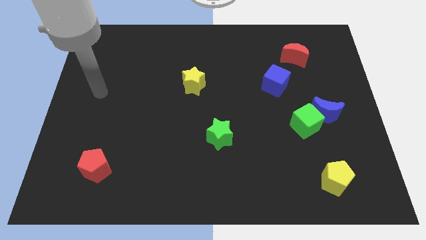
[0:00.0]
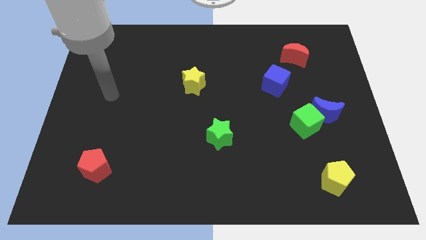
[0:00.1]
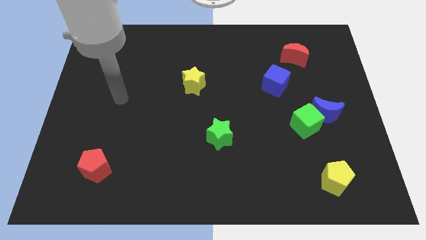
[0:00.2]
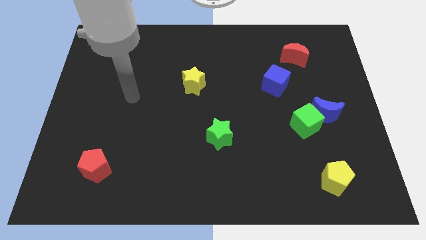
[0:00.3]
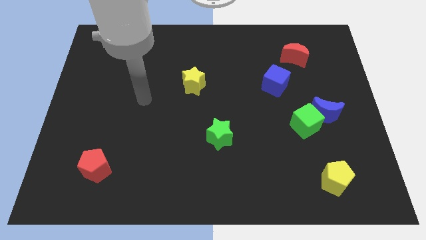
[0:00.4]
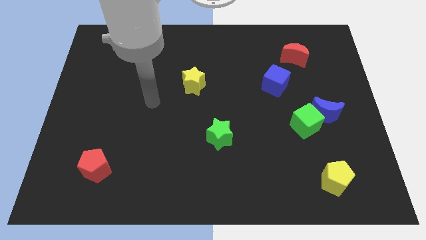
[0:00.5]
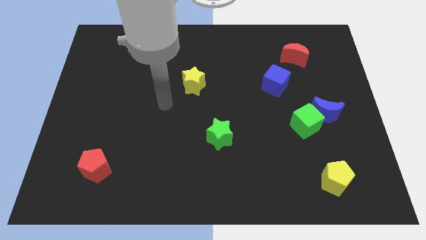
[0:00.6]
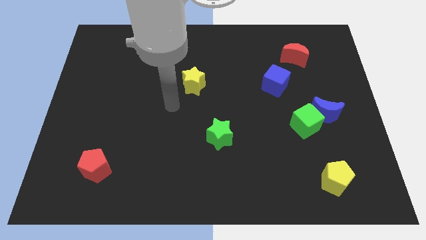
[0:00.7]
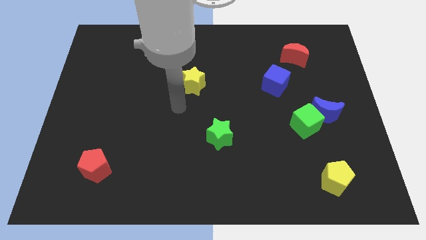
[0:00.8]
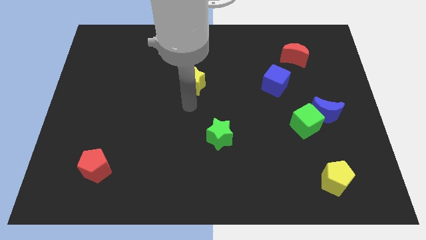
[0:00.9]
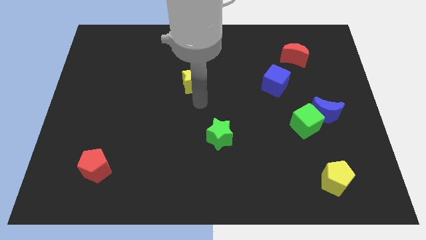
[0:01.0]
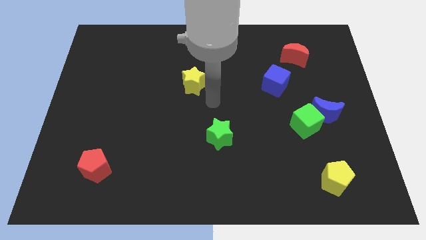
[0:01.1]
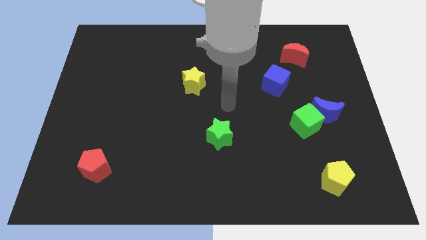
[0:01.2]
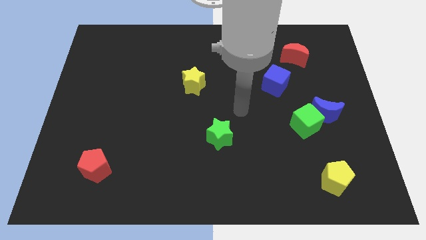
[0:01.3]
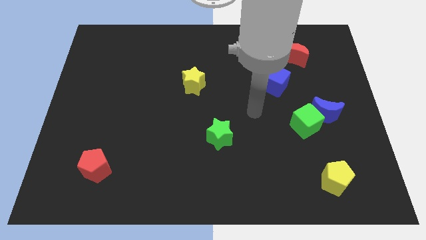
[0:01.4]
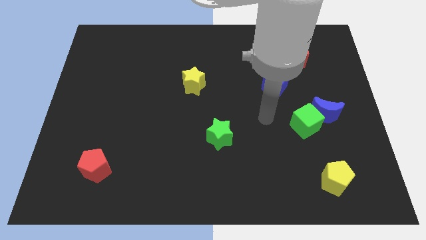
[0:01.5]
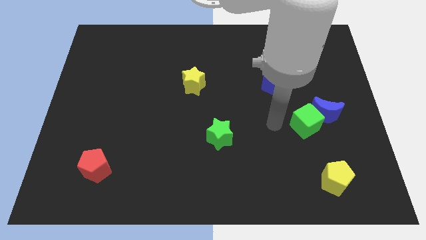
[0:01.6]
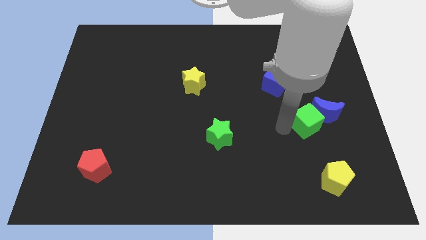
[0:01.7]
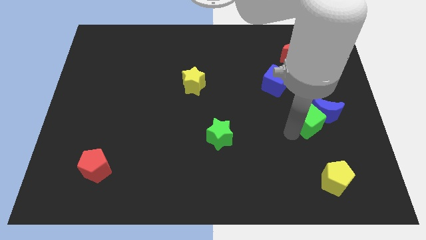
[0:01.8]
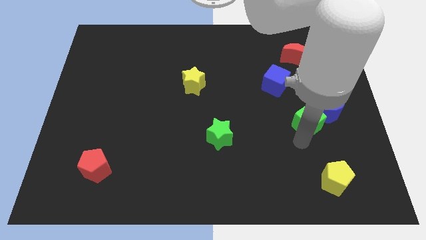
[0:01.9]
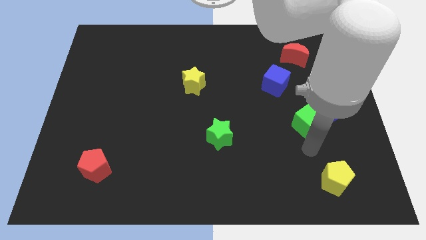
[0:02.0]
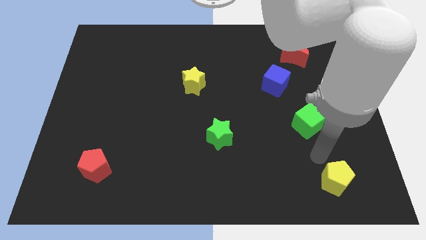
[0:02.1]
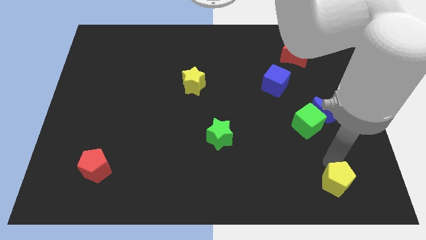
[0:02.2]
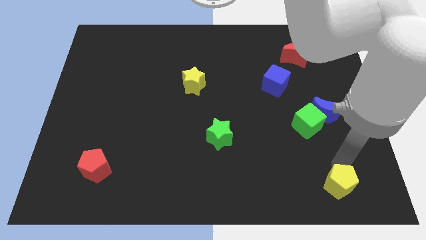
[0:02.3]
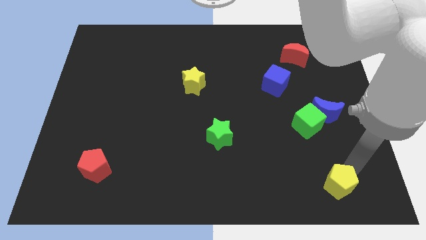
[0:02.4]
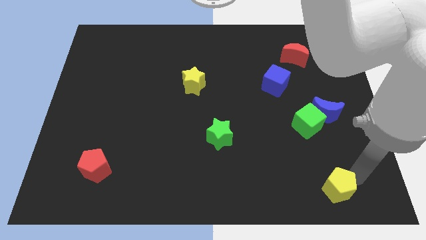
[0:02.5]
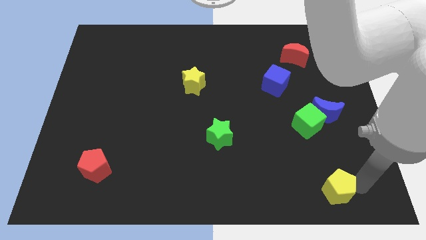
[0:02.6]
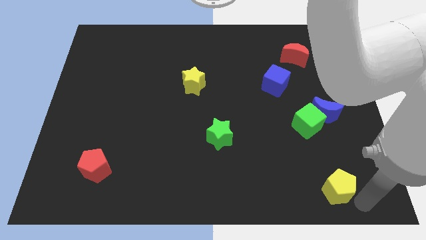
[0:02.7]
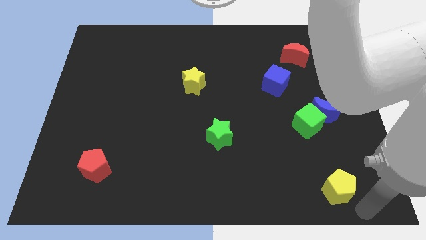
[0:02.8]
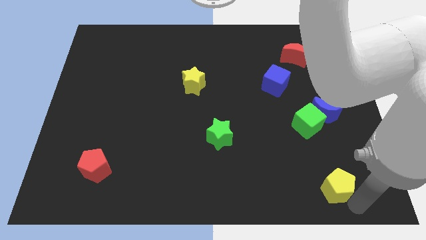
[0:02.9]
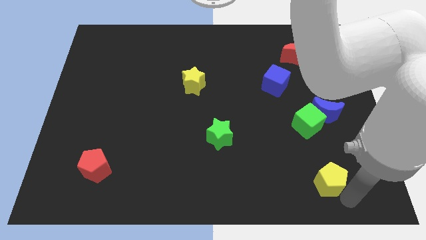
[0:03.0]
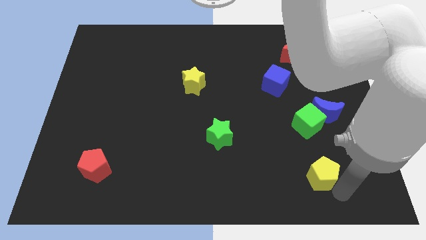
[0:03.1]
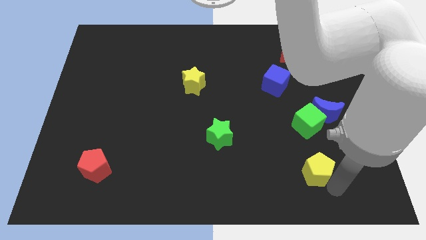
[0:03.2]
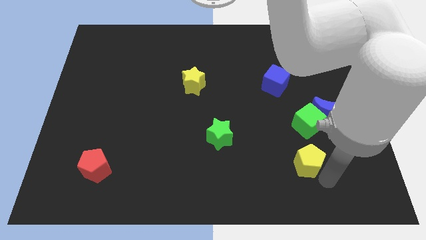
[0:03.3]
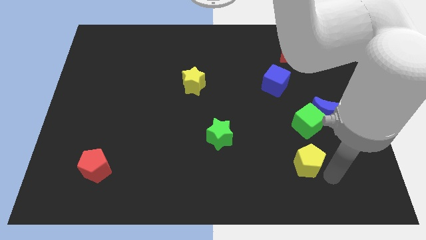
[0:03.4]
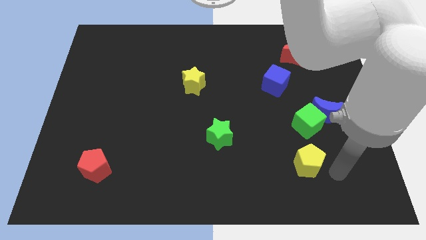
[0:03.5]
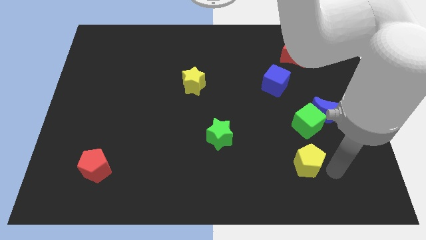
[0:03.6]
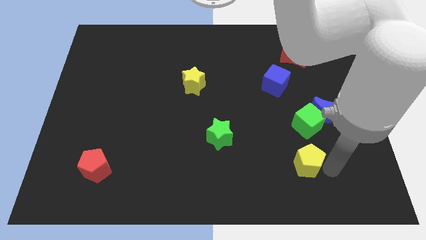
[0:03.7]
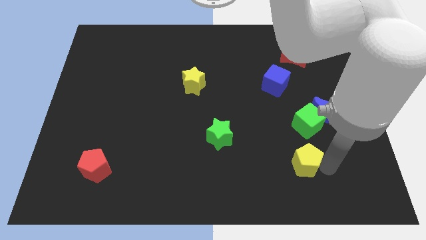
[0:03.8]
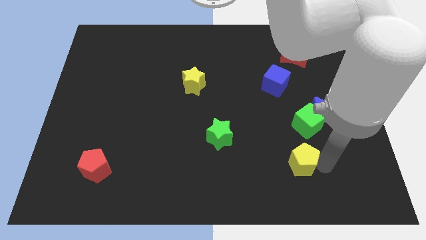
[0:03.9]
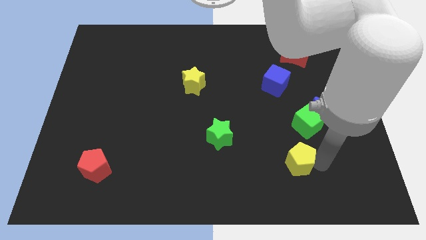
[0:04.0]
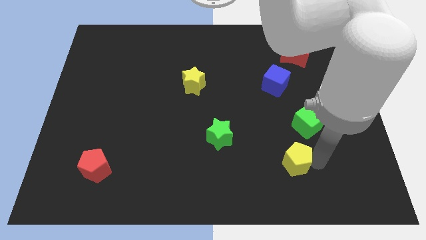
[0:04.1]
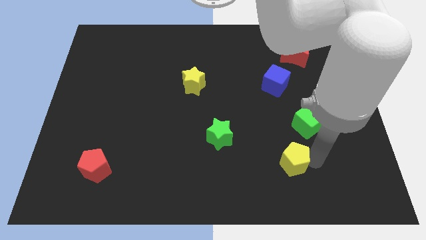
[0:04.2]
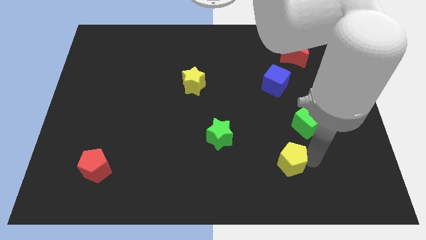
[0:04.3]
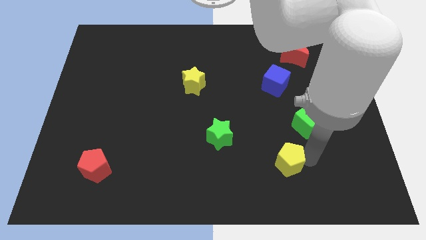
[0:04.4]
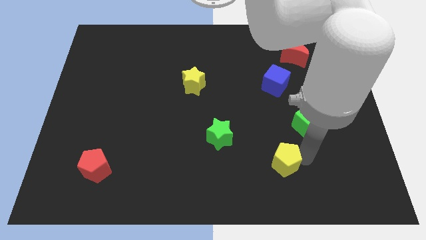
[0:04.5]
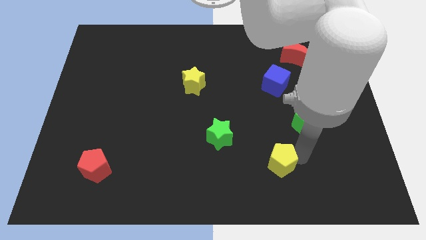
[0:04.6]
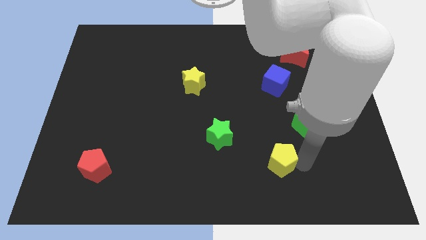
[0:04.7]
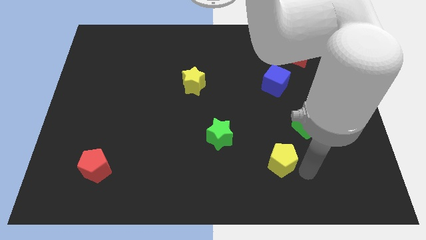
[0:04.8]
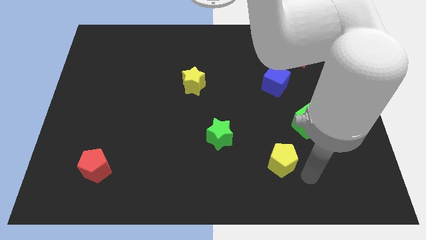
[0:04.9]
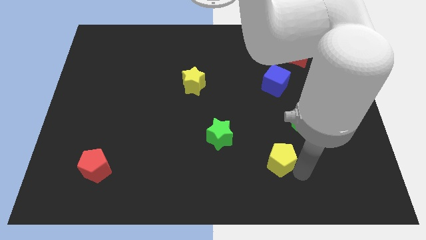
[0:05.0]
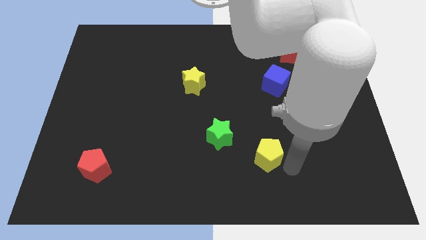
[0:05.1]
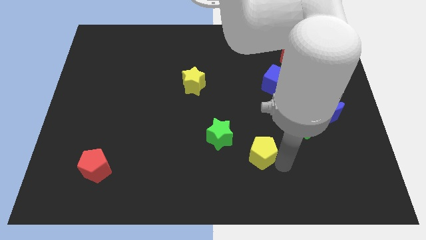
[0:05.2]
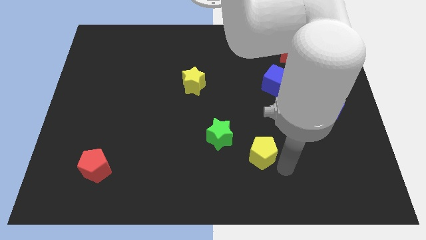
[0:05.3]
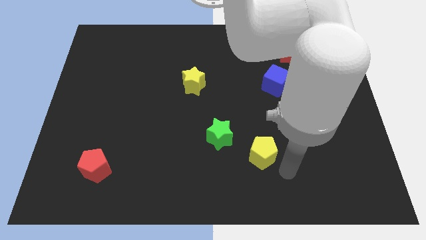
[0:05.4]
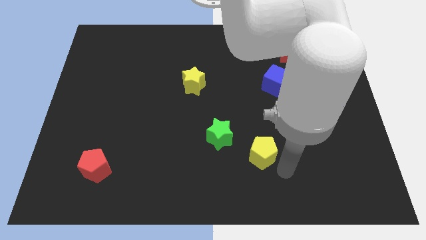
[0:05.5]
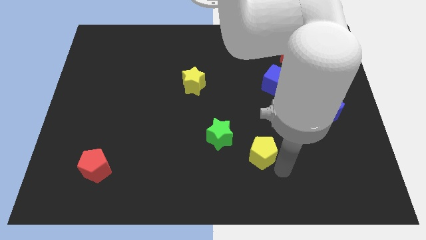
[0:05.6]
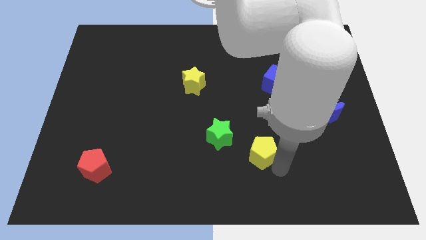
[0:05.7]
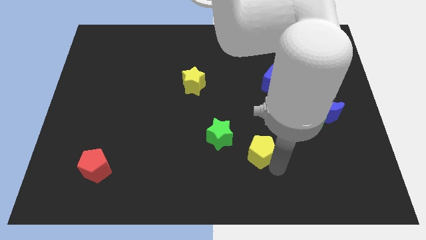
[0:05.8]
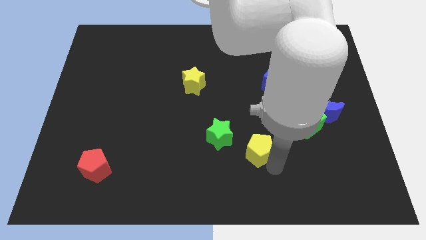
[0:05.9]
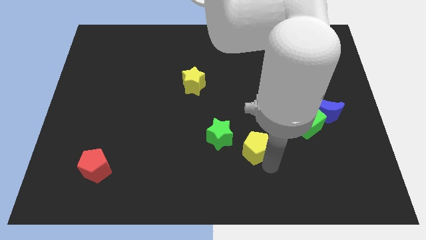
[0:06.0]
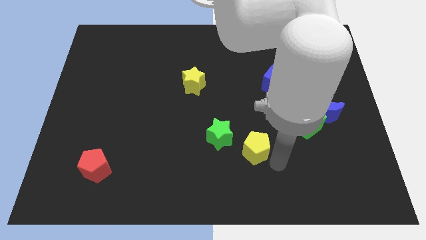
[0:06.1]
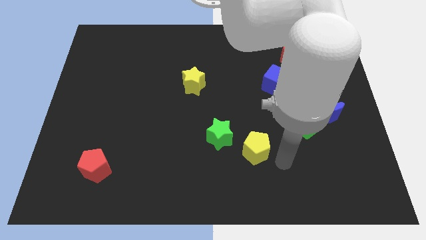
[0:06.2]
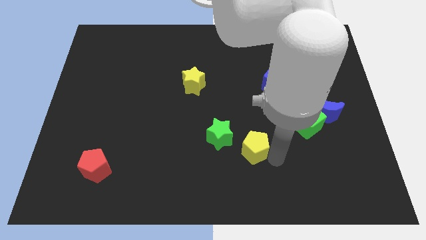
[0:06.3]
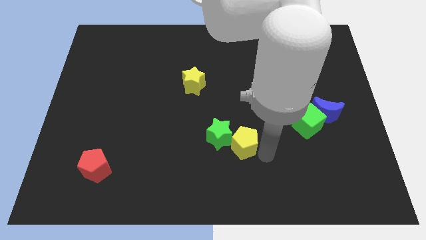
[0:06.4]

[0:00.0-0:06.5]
move the yellow pentagon next to the green star
